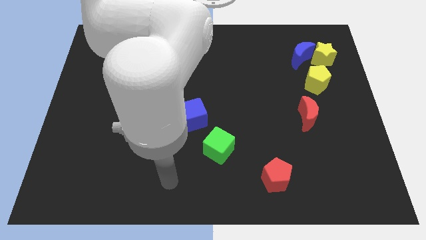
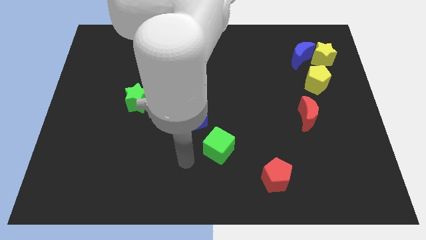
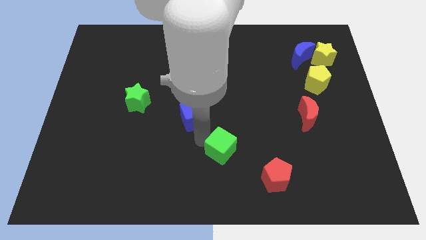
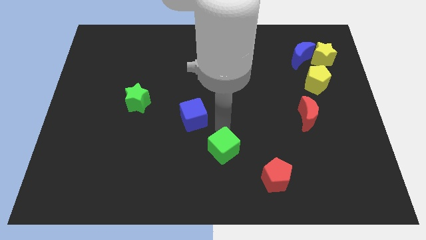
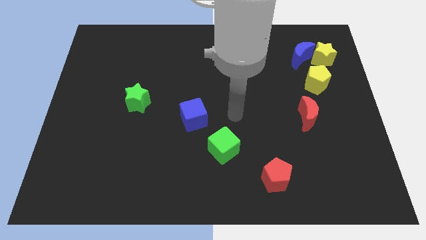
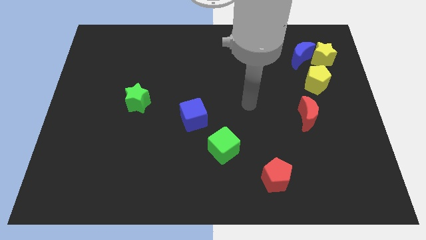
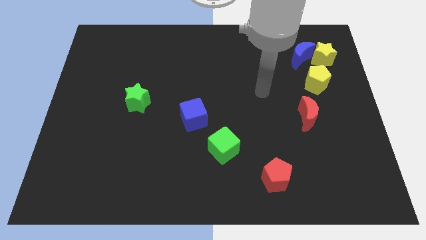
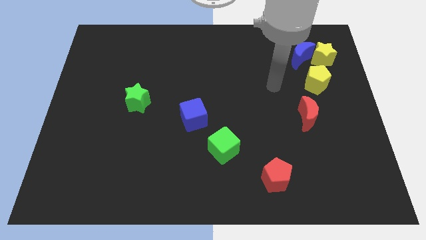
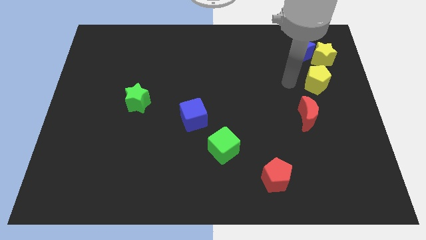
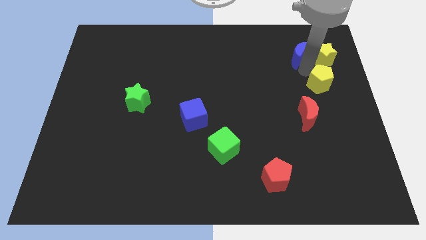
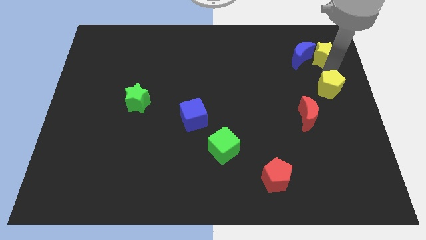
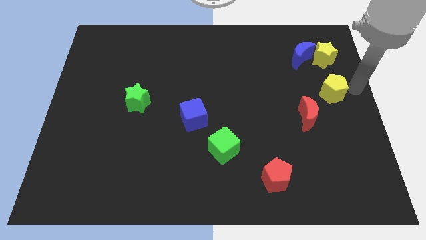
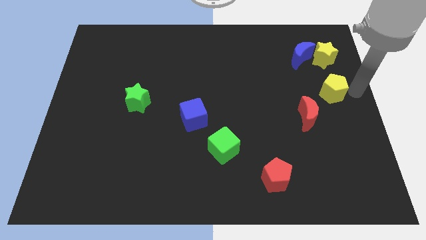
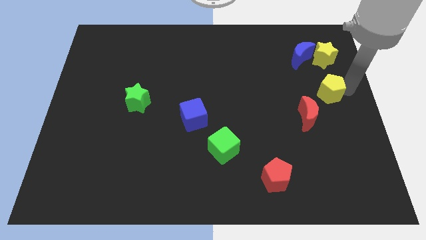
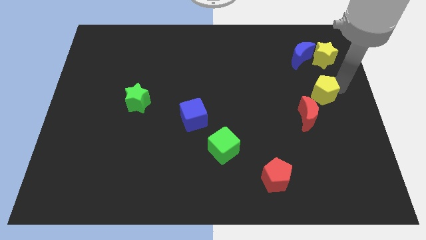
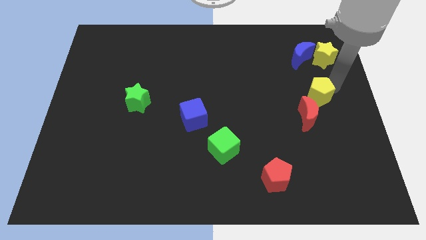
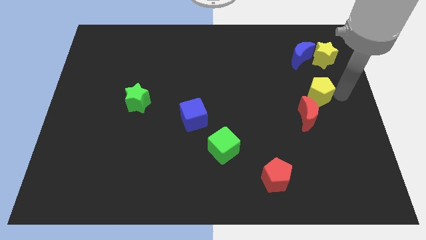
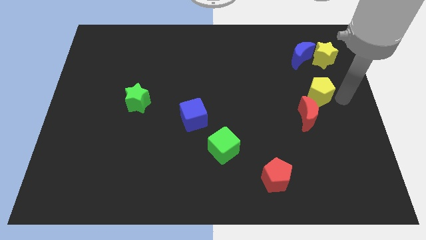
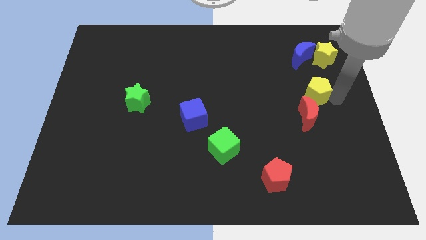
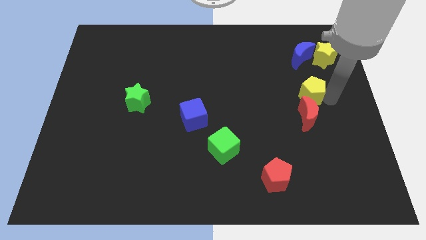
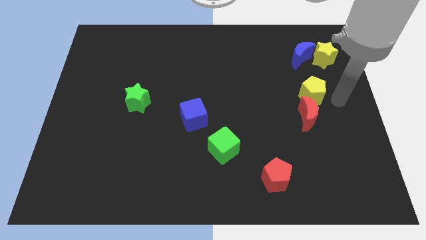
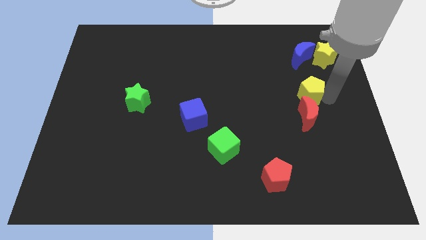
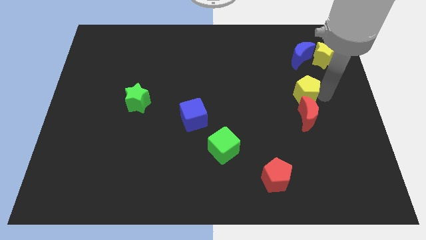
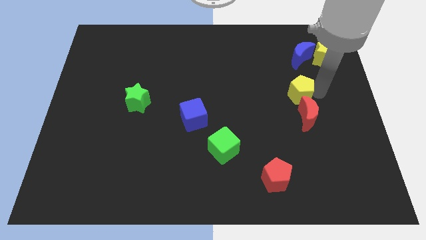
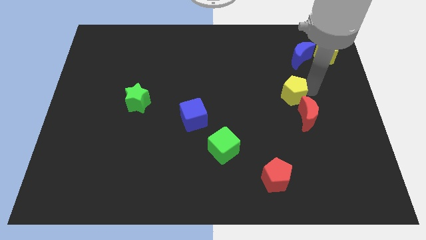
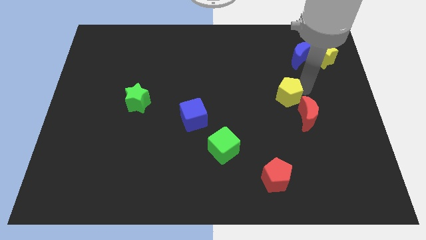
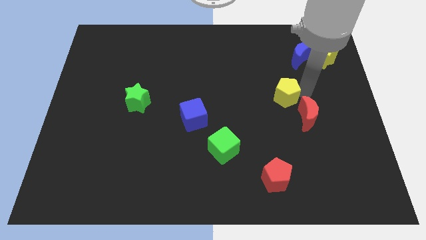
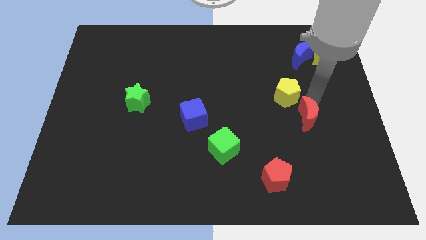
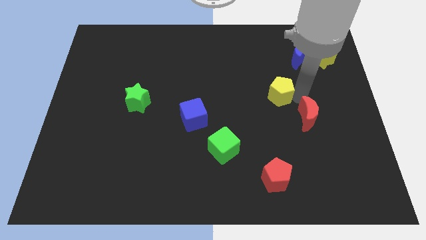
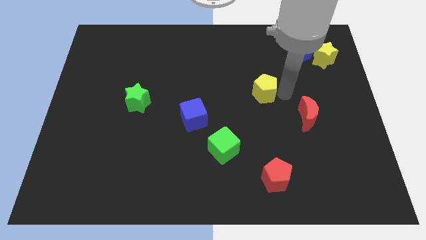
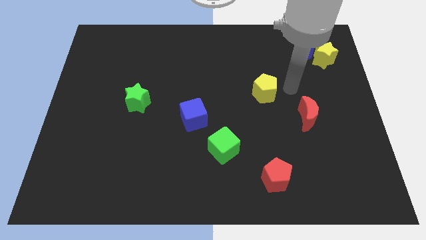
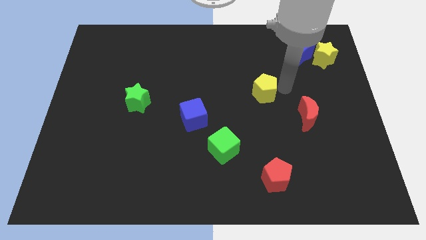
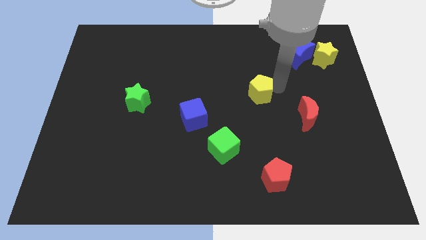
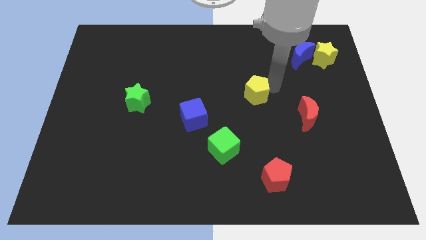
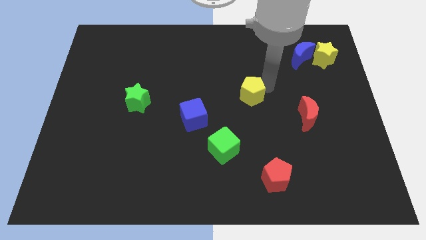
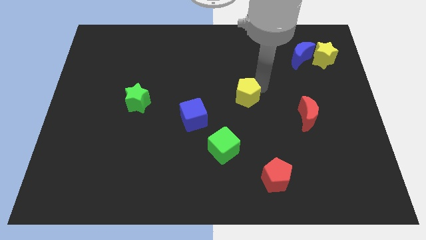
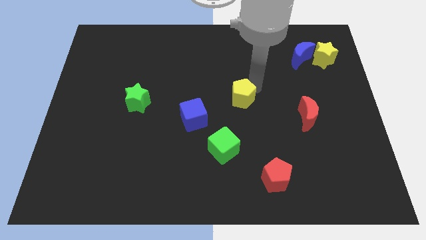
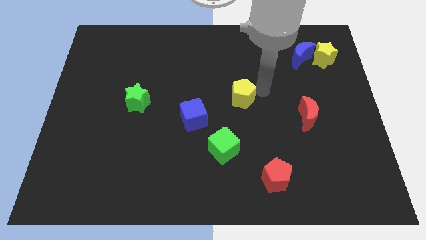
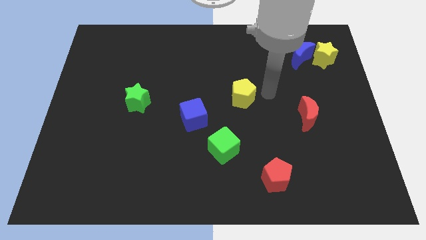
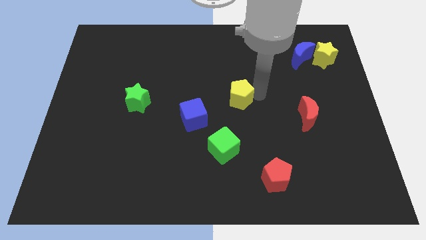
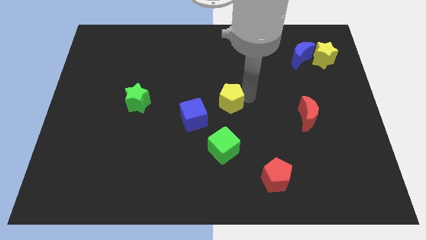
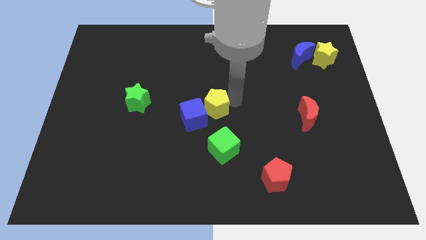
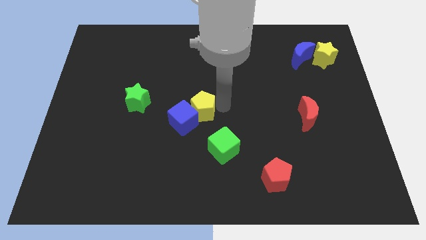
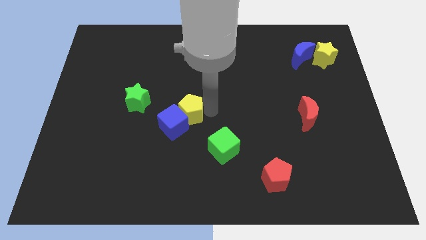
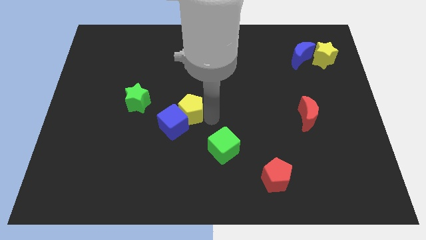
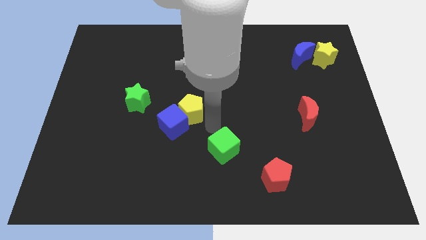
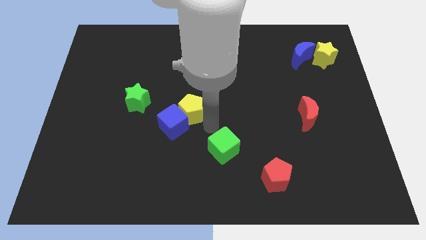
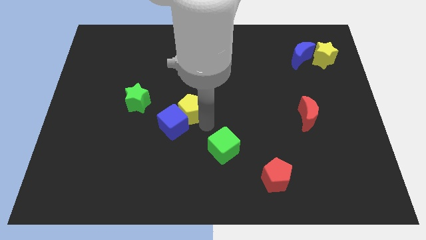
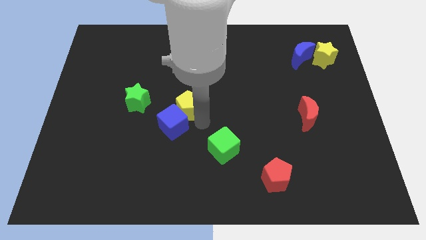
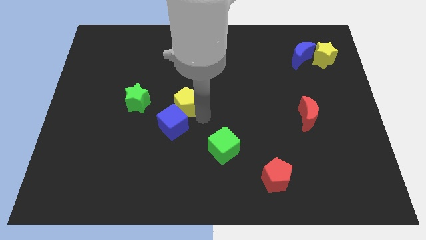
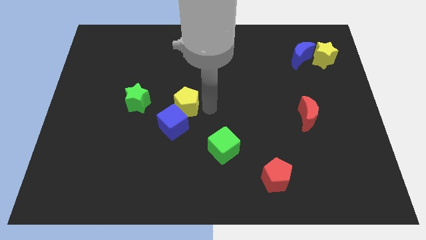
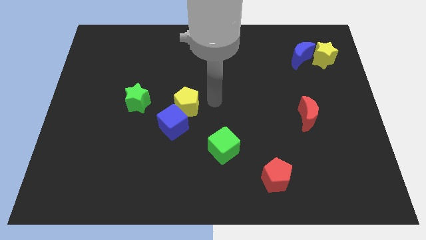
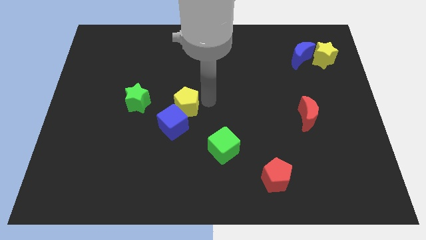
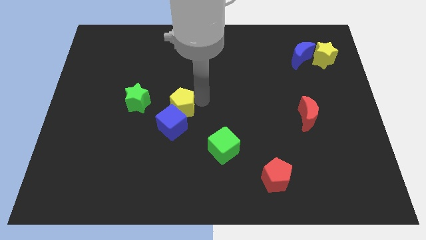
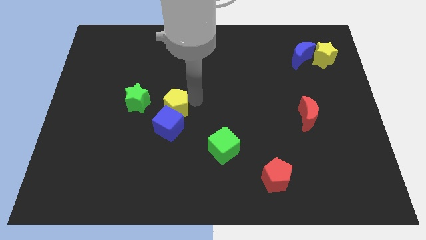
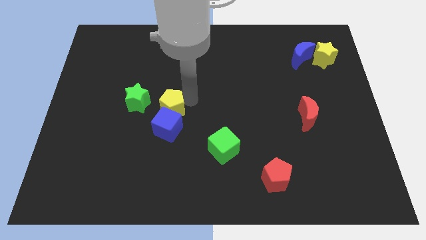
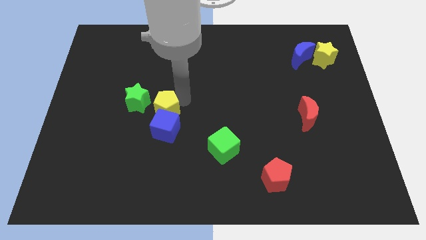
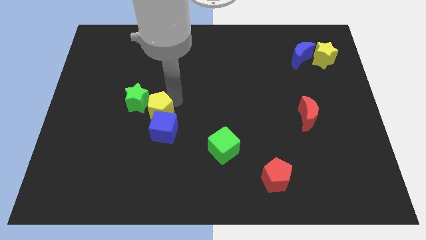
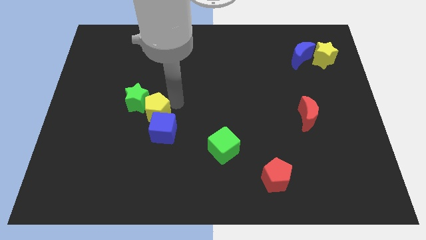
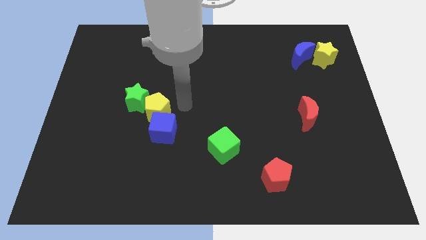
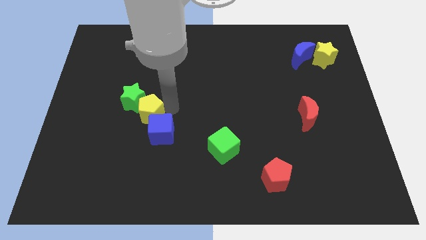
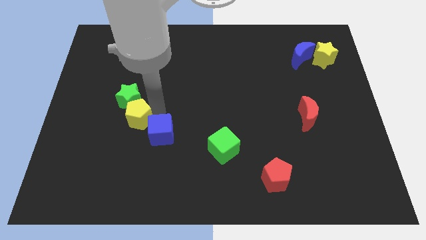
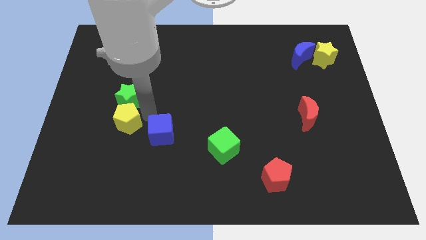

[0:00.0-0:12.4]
slide the yellow pentagon diagonally down and to the left of the green star
